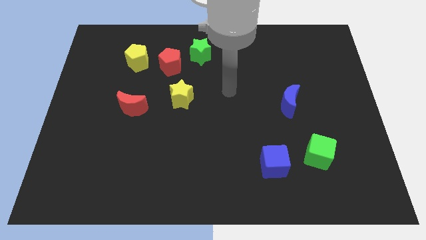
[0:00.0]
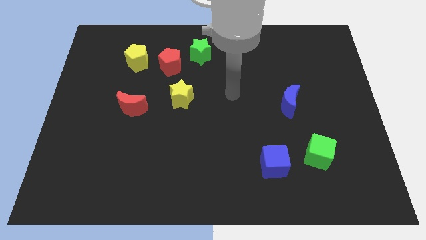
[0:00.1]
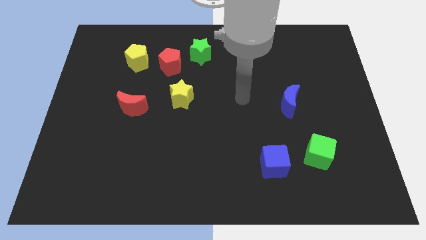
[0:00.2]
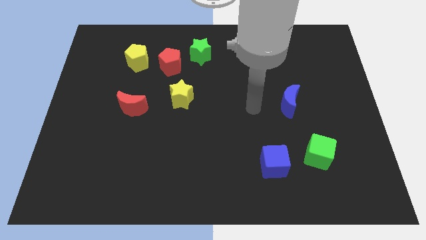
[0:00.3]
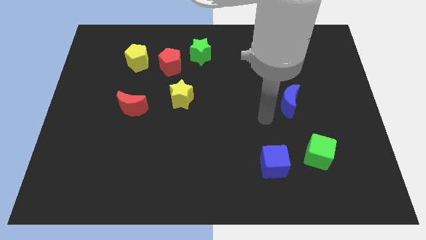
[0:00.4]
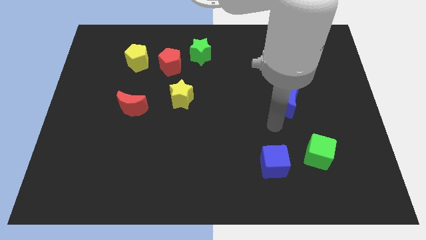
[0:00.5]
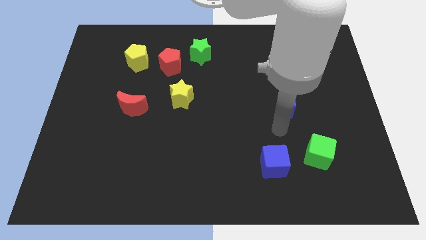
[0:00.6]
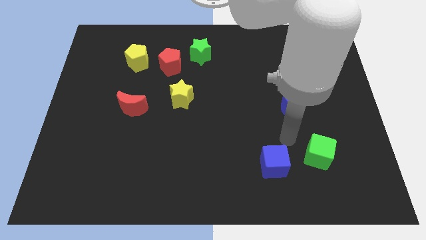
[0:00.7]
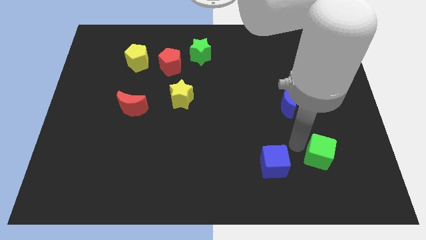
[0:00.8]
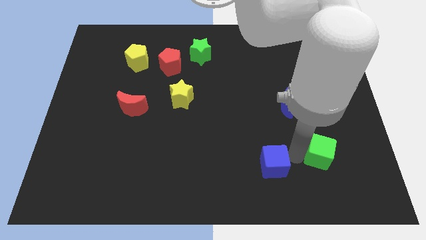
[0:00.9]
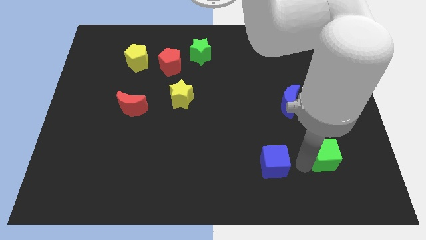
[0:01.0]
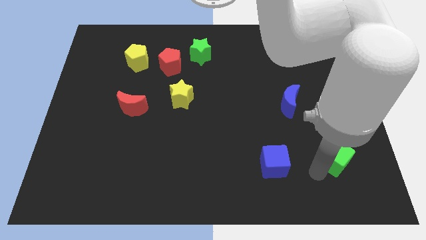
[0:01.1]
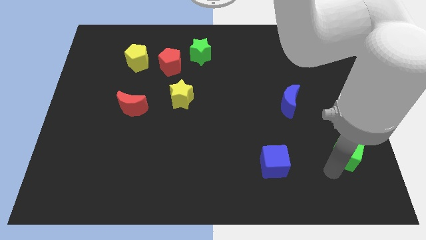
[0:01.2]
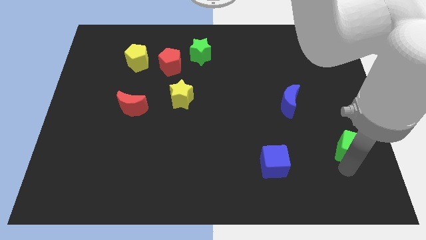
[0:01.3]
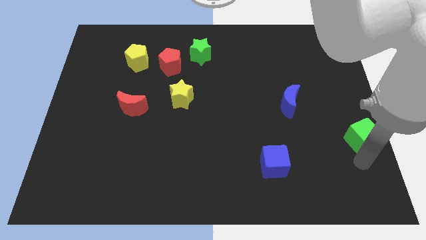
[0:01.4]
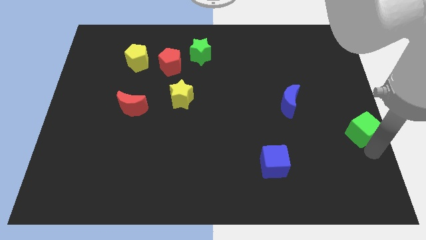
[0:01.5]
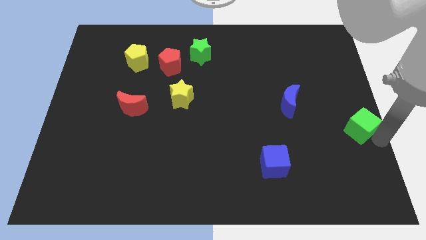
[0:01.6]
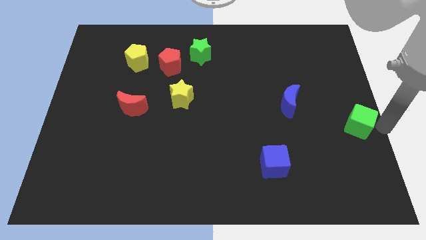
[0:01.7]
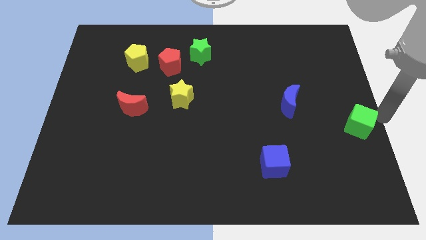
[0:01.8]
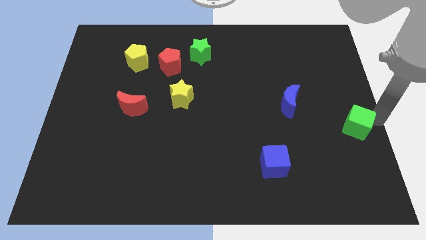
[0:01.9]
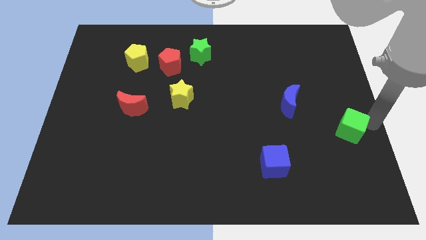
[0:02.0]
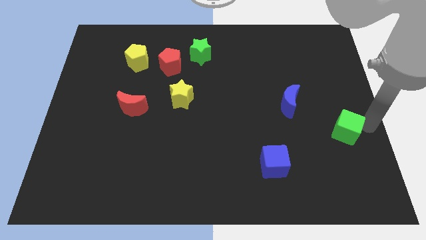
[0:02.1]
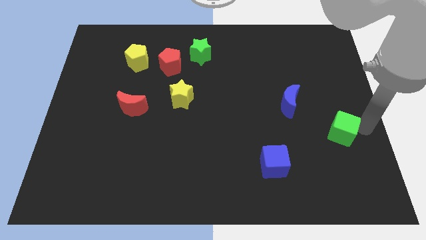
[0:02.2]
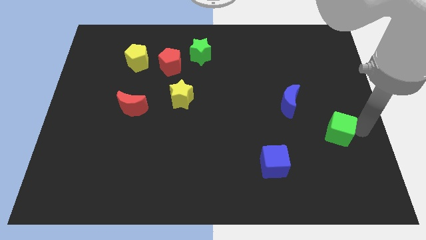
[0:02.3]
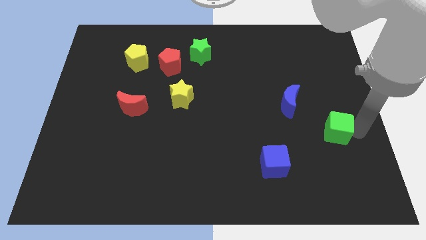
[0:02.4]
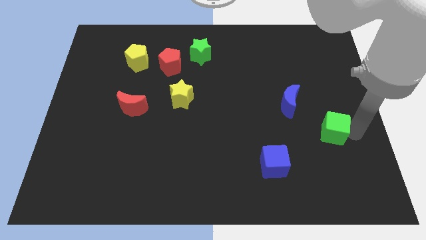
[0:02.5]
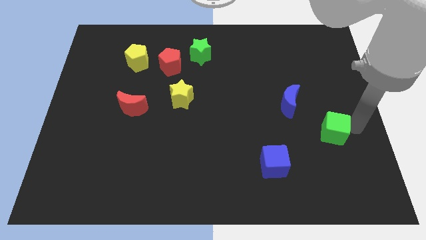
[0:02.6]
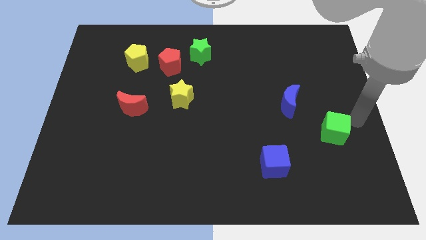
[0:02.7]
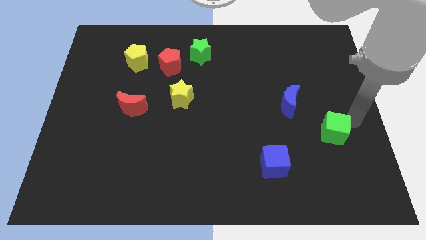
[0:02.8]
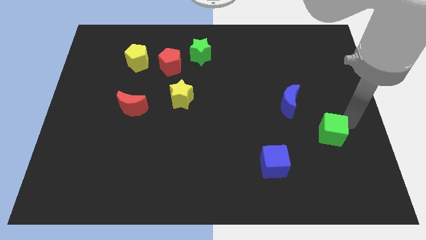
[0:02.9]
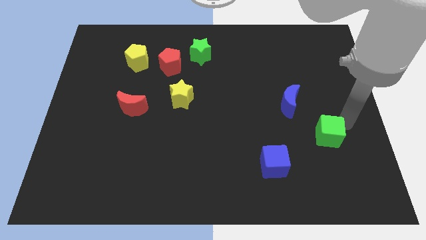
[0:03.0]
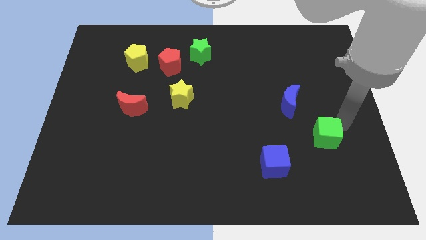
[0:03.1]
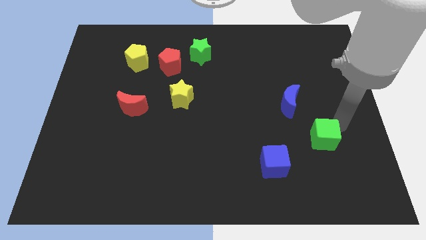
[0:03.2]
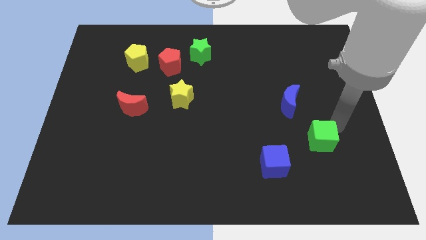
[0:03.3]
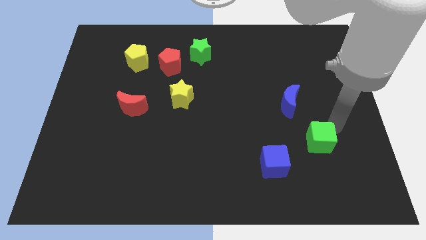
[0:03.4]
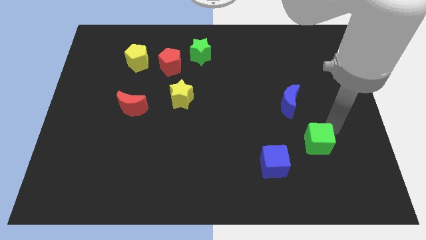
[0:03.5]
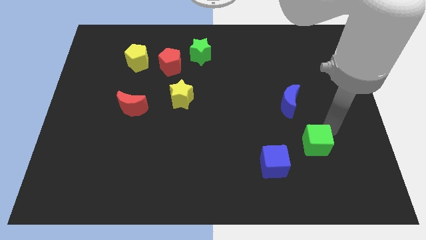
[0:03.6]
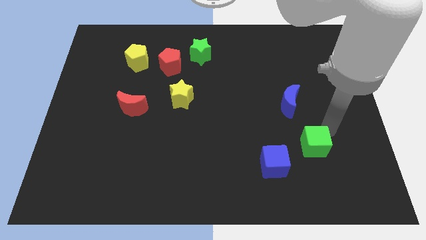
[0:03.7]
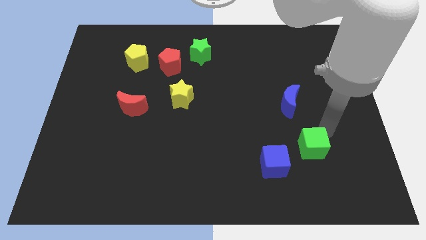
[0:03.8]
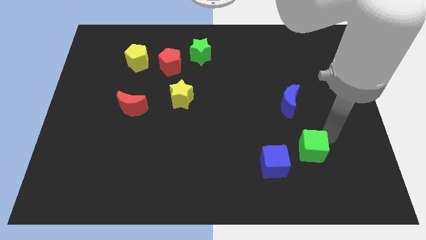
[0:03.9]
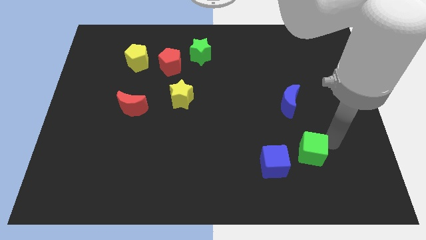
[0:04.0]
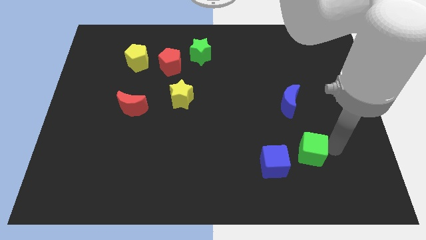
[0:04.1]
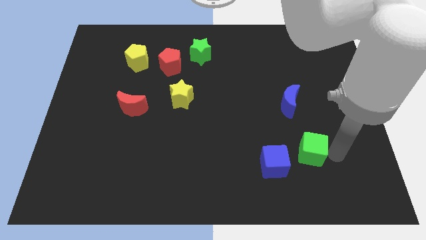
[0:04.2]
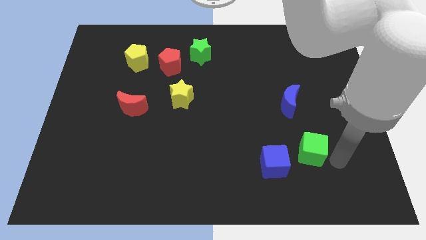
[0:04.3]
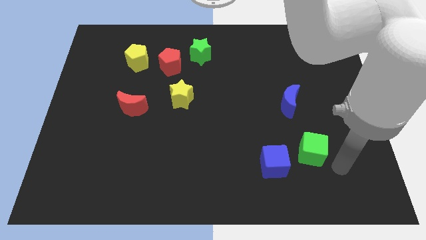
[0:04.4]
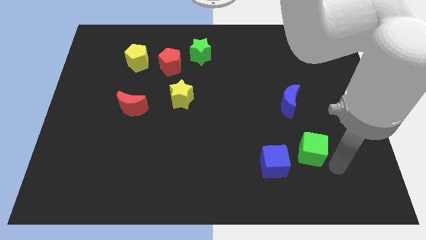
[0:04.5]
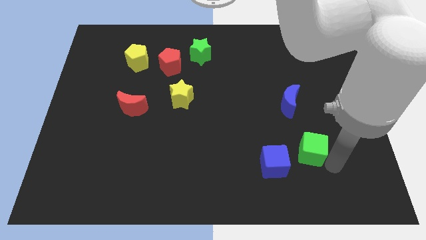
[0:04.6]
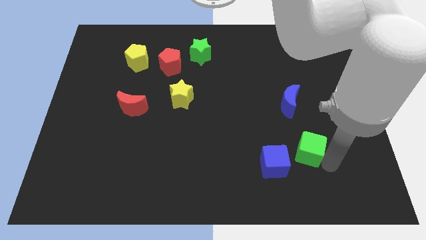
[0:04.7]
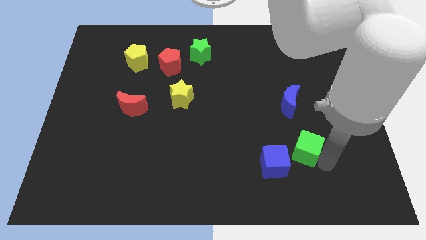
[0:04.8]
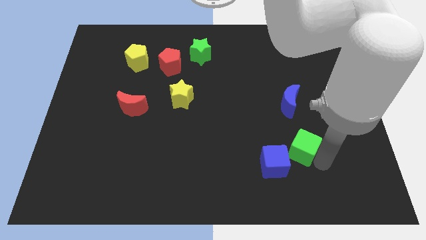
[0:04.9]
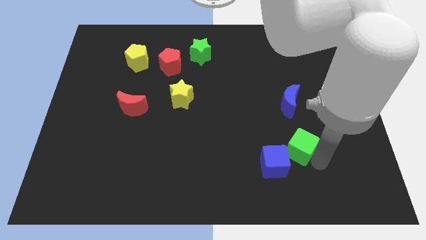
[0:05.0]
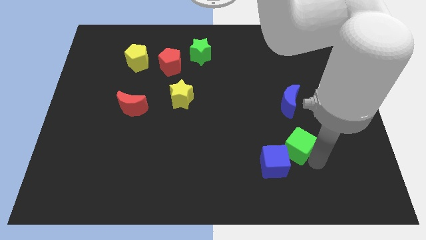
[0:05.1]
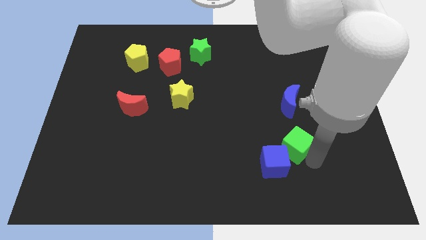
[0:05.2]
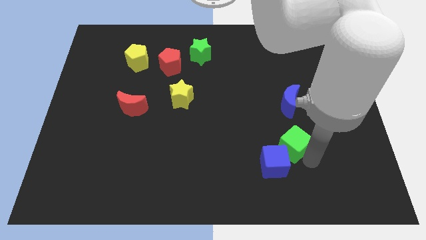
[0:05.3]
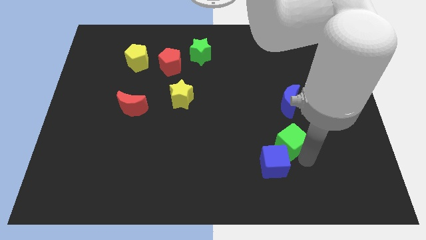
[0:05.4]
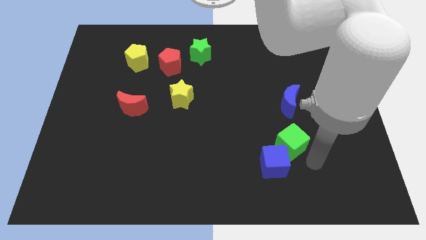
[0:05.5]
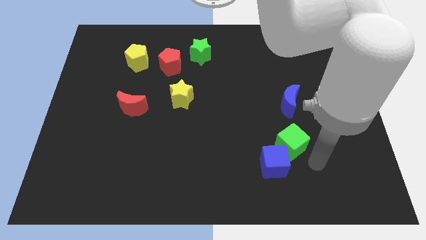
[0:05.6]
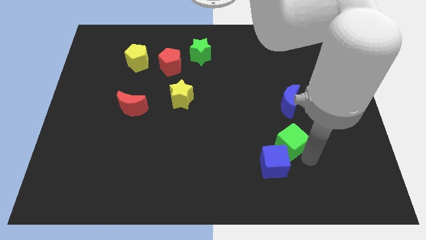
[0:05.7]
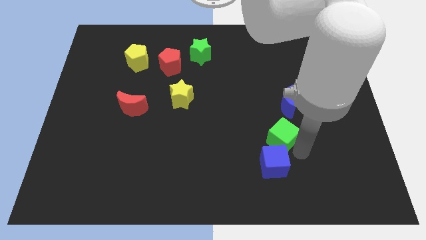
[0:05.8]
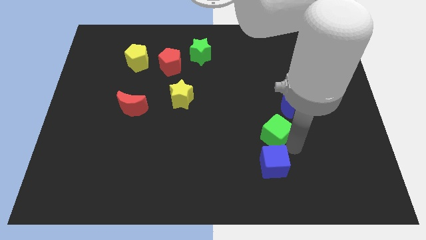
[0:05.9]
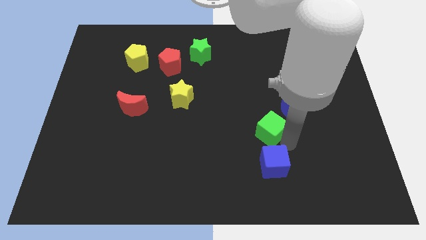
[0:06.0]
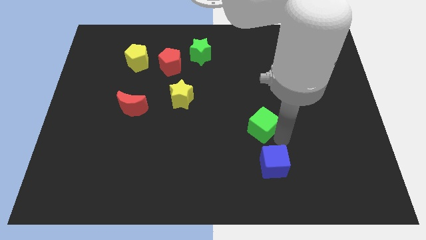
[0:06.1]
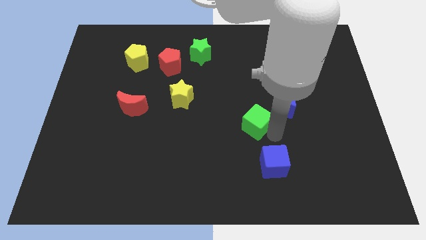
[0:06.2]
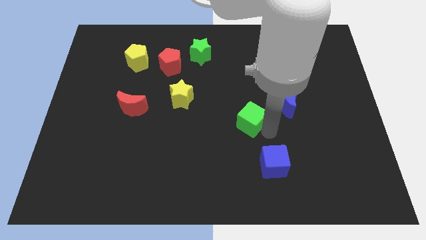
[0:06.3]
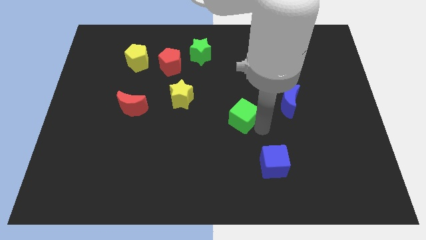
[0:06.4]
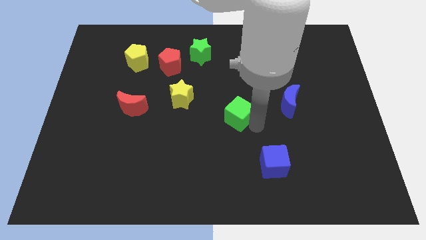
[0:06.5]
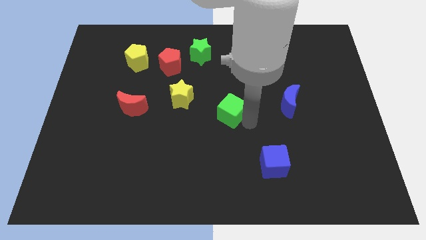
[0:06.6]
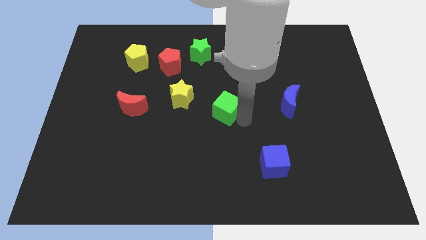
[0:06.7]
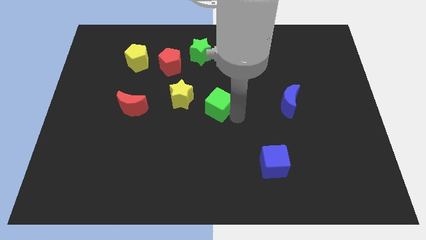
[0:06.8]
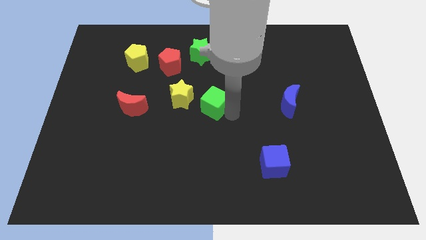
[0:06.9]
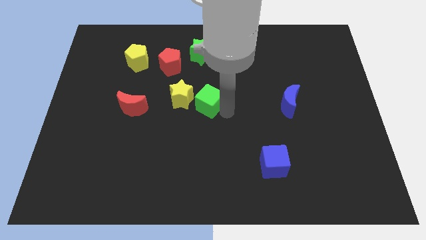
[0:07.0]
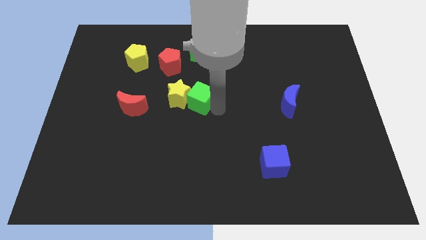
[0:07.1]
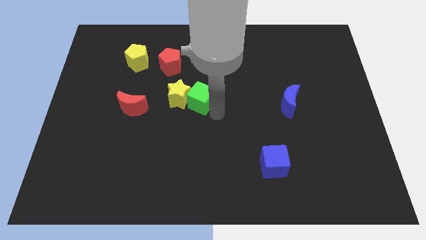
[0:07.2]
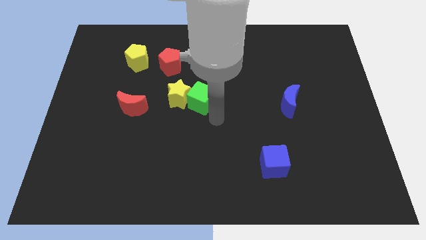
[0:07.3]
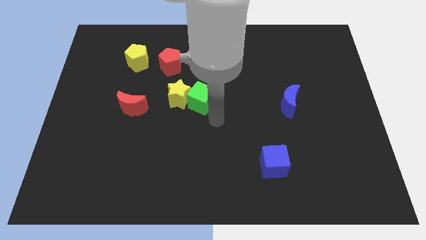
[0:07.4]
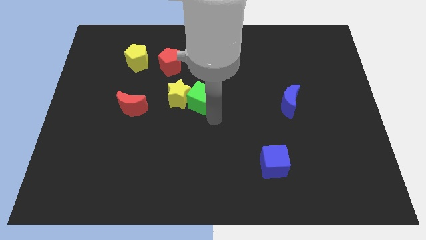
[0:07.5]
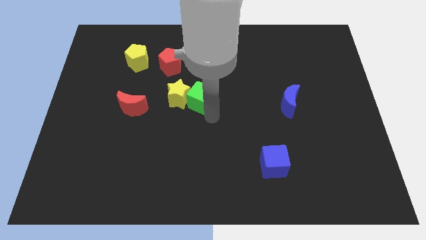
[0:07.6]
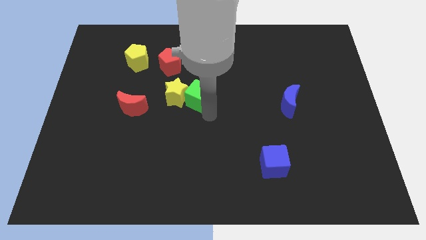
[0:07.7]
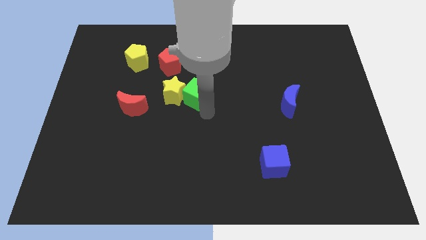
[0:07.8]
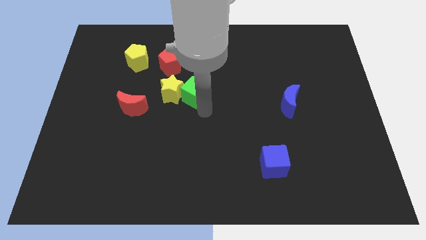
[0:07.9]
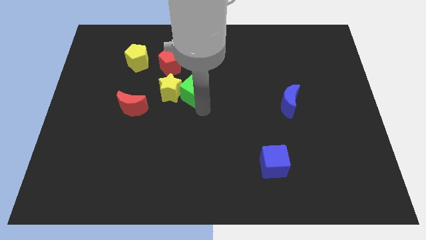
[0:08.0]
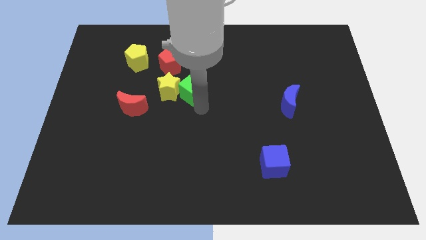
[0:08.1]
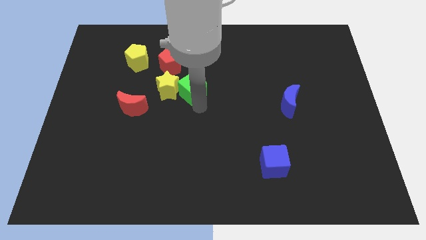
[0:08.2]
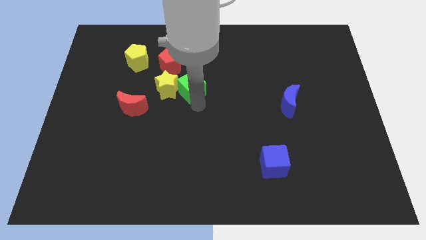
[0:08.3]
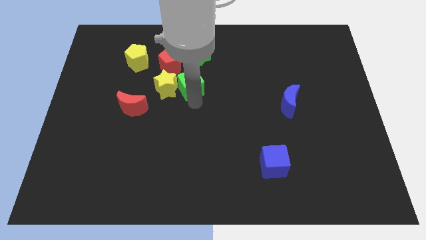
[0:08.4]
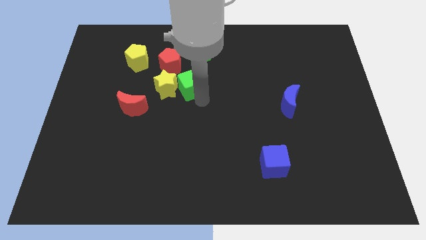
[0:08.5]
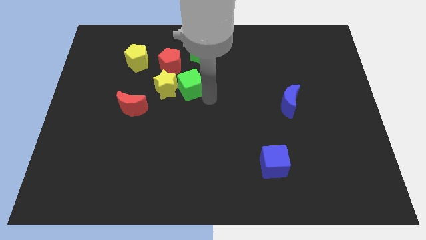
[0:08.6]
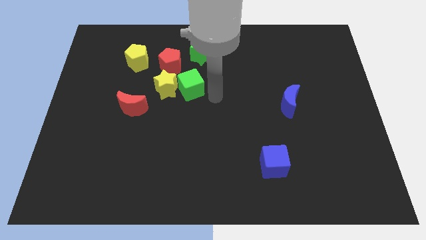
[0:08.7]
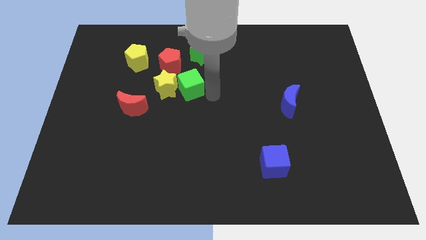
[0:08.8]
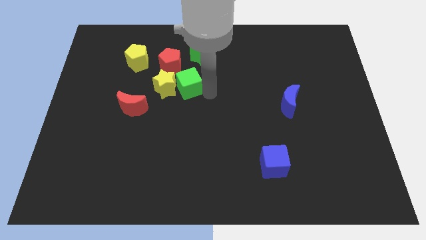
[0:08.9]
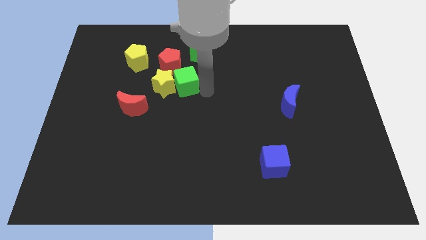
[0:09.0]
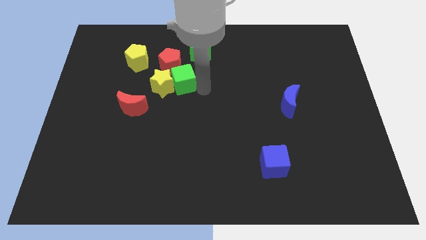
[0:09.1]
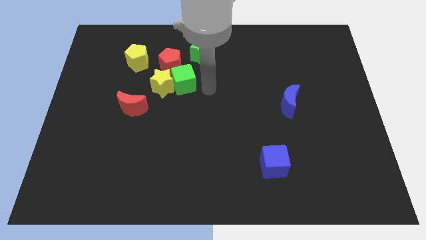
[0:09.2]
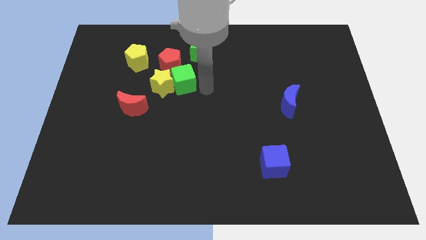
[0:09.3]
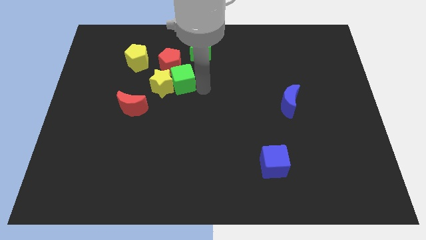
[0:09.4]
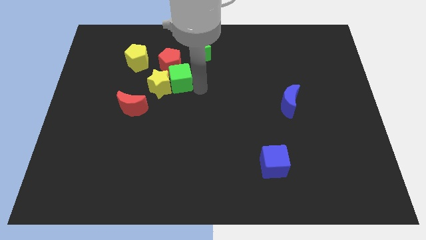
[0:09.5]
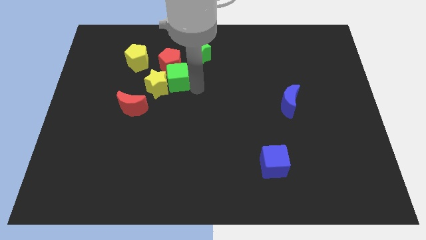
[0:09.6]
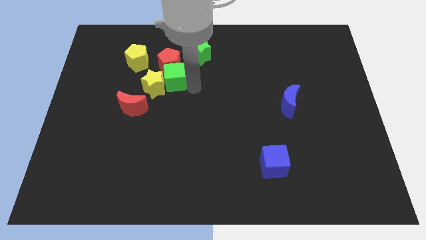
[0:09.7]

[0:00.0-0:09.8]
push the green cube to the bottom right of the yellow pentagon
